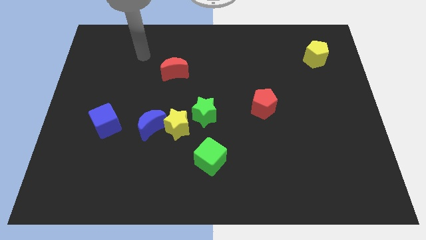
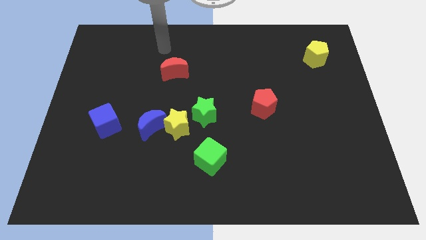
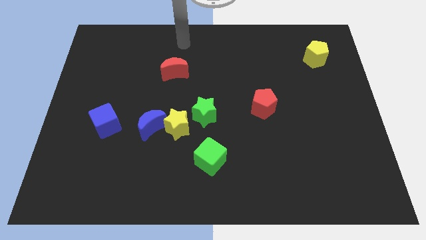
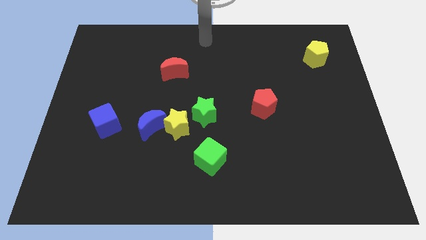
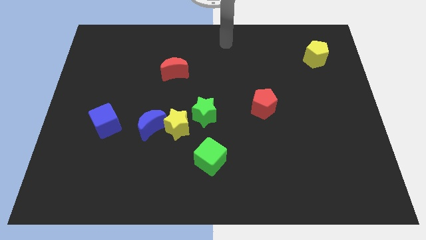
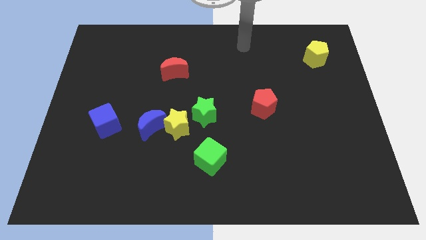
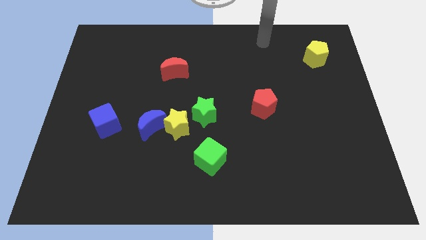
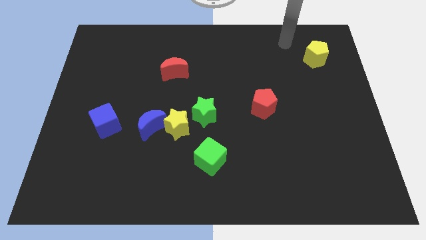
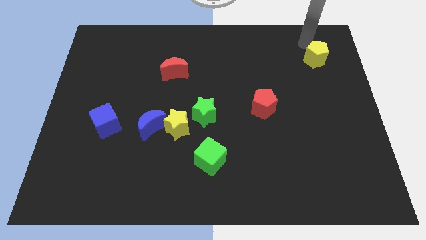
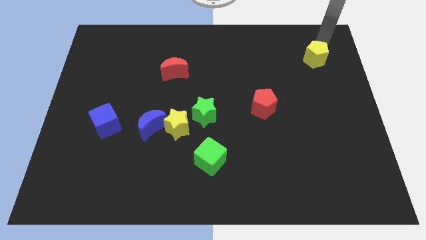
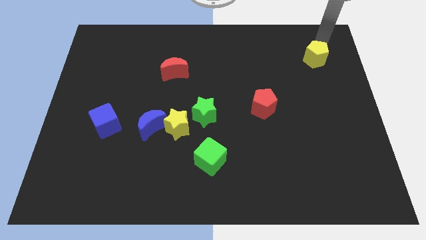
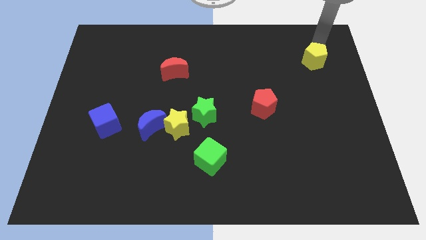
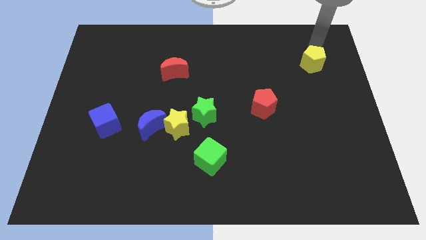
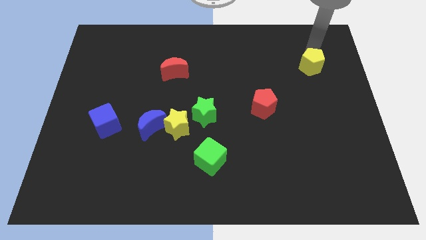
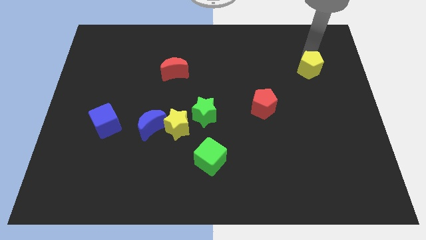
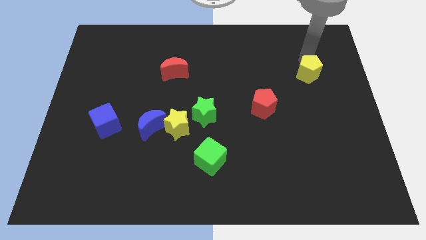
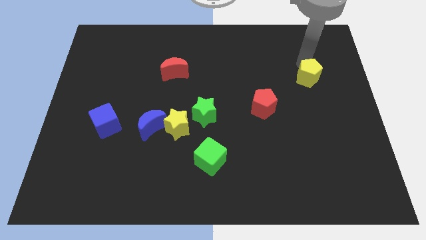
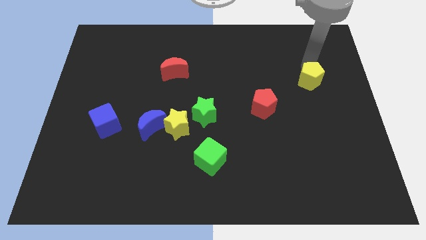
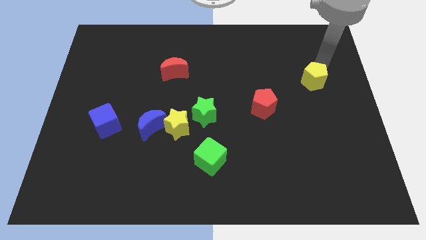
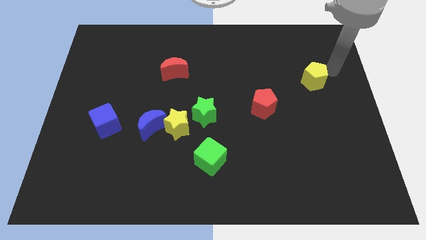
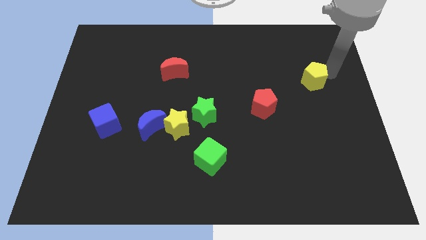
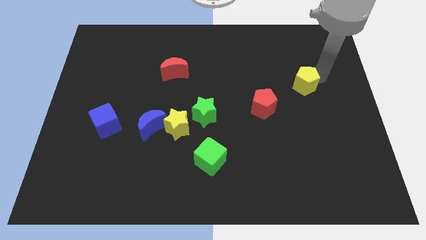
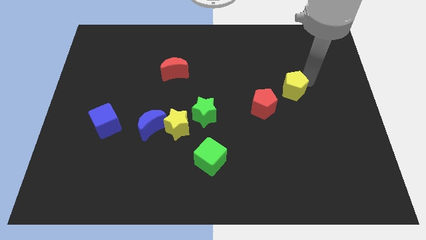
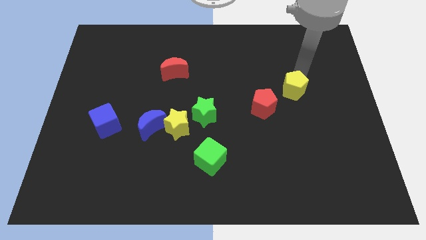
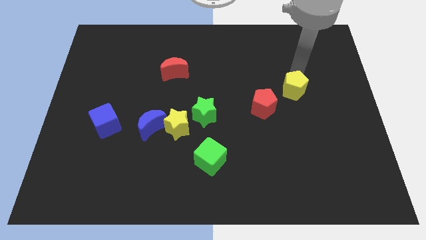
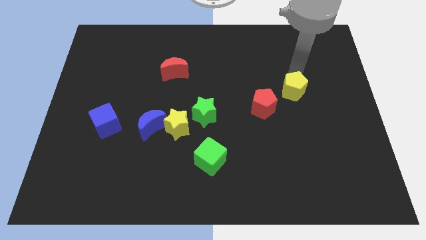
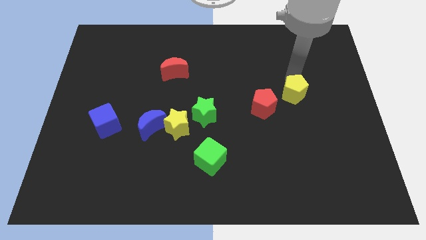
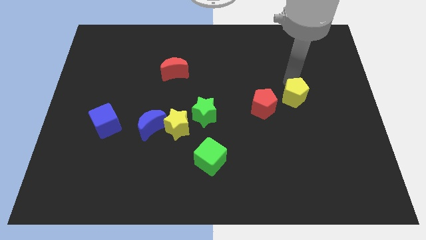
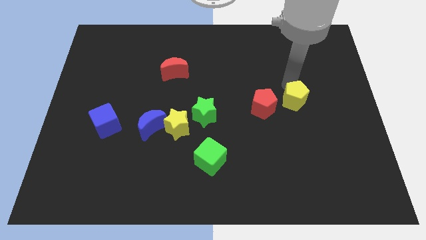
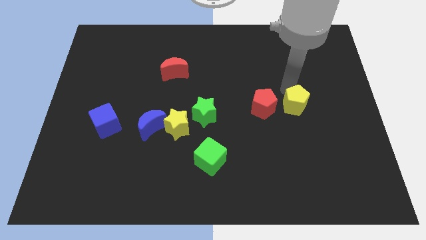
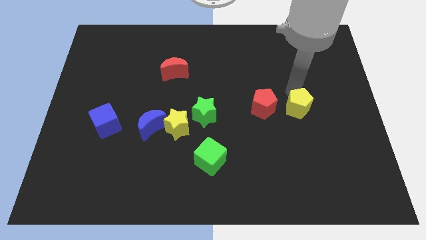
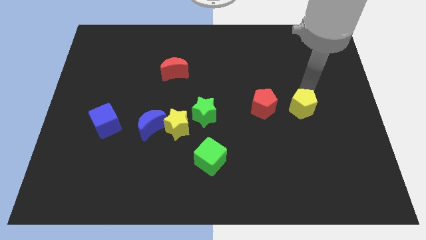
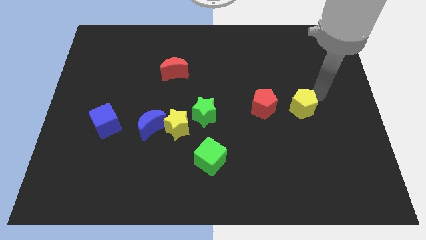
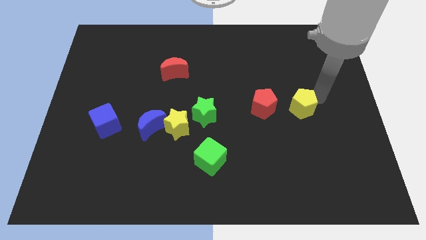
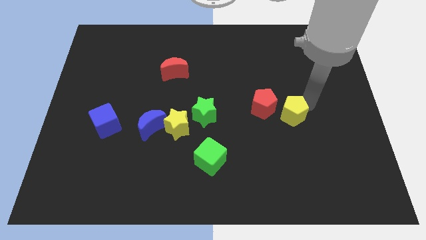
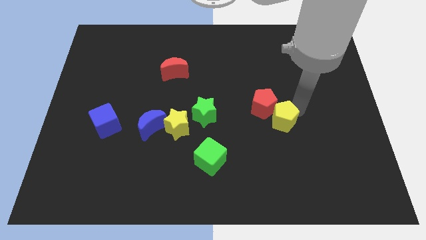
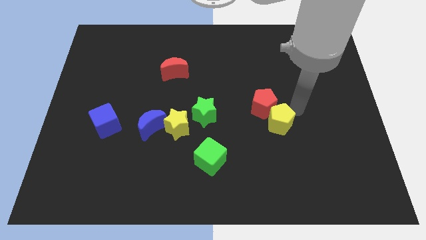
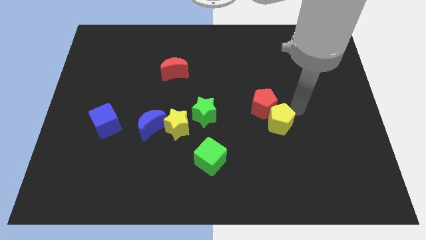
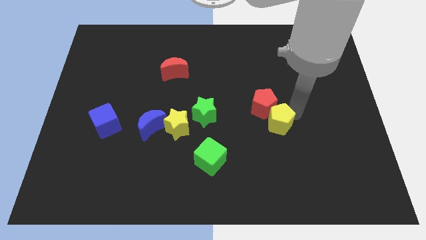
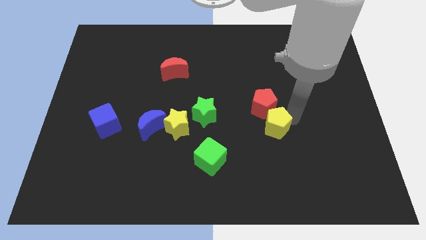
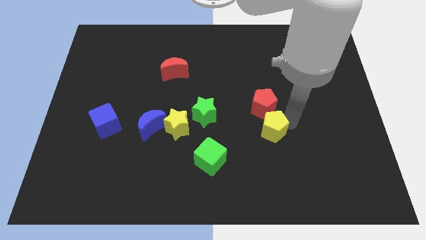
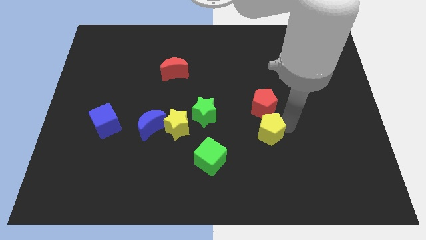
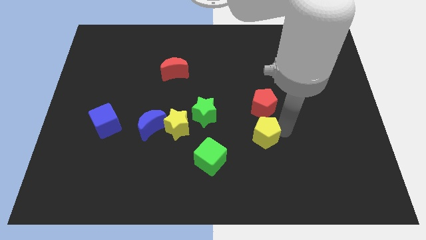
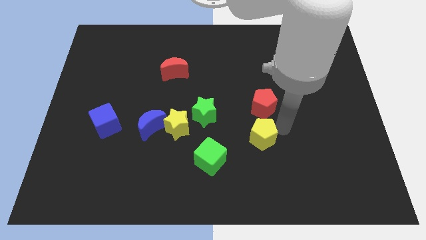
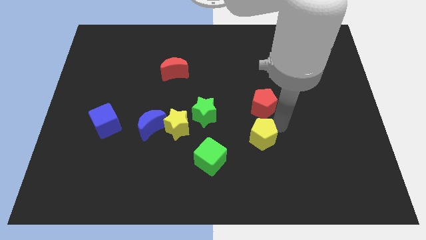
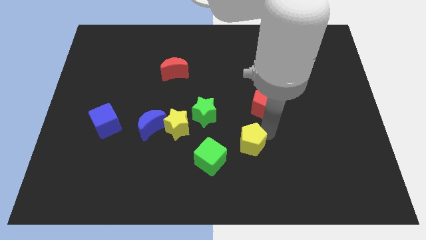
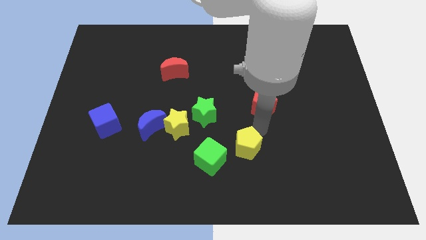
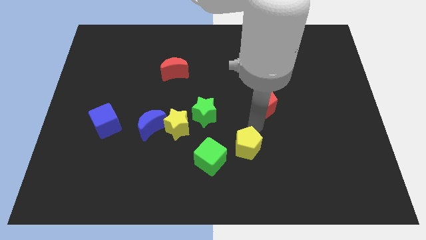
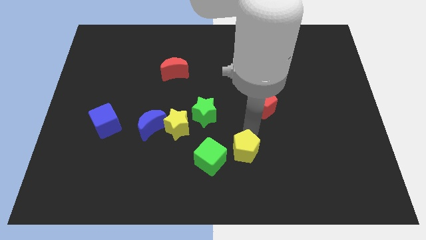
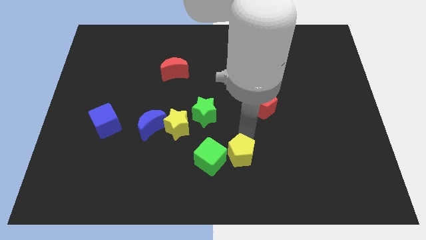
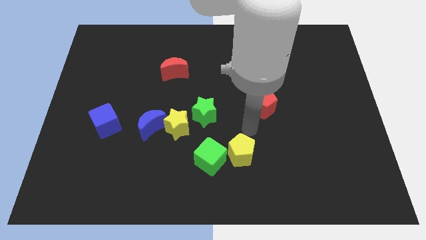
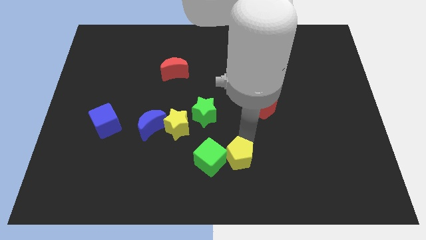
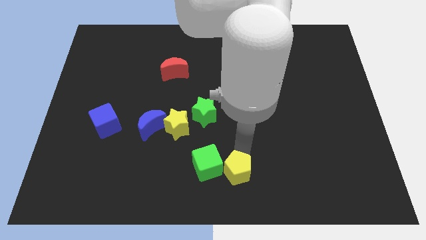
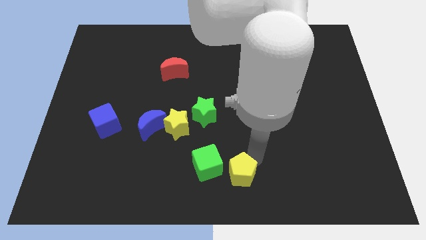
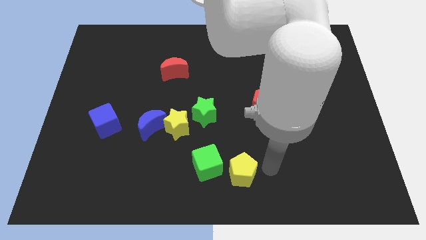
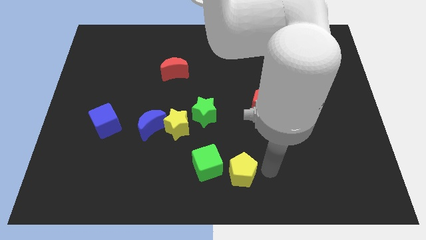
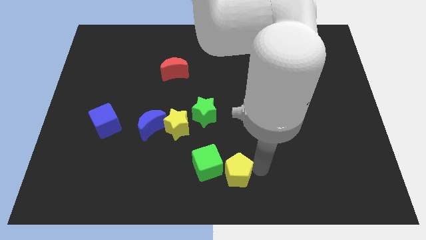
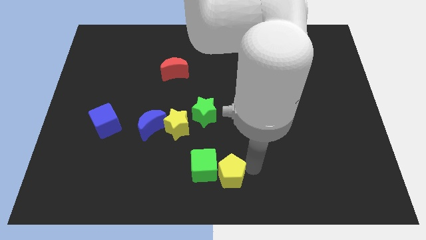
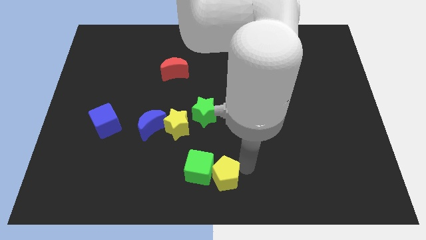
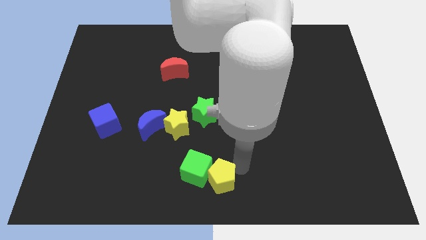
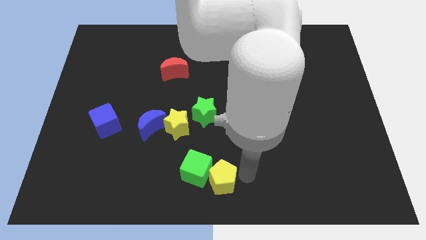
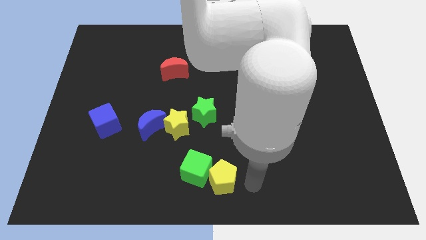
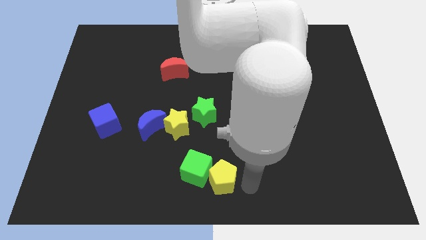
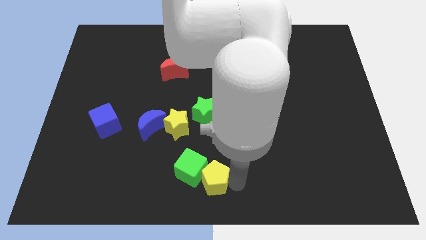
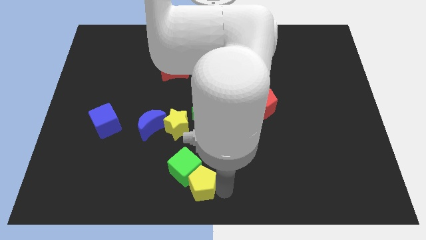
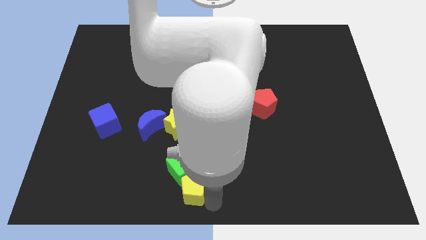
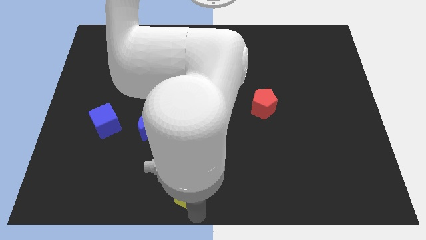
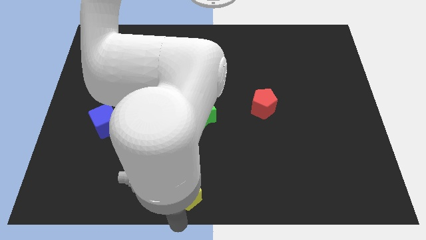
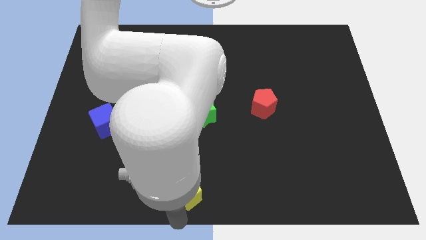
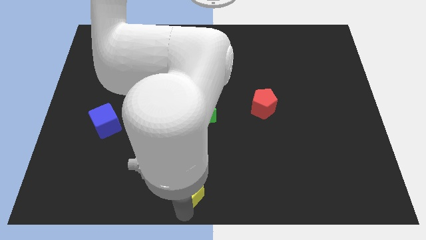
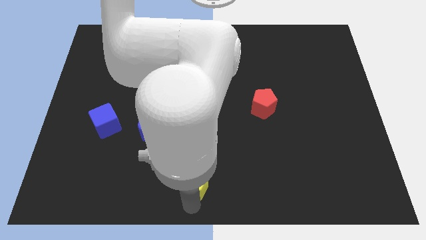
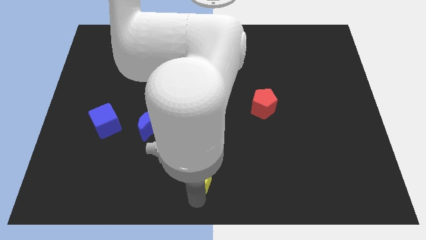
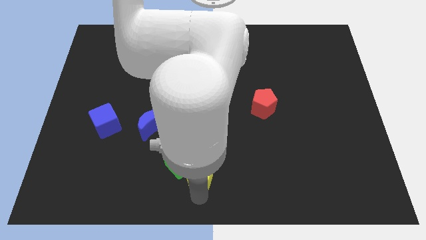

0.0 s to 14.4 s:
slide the yellow pentagon below the green star
